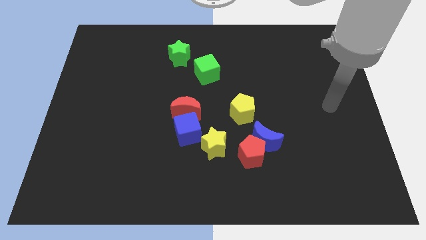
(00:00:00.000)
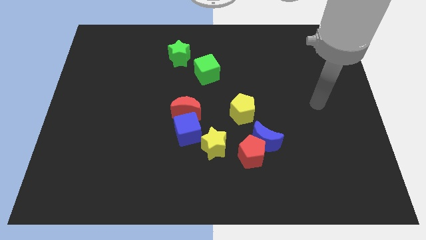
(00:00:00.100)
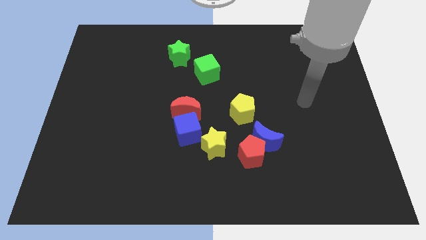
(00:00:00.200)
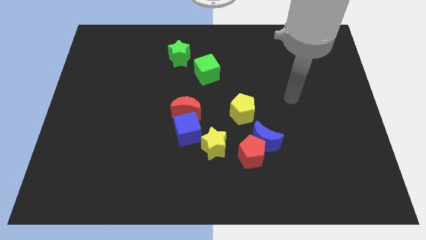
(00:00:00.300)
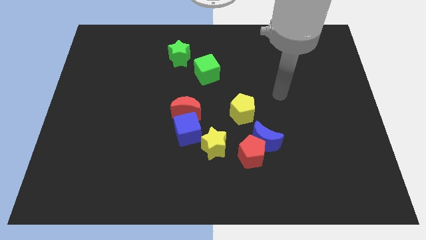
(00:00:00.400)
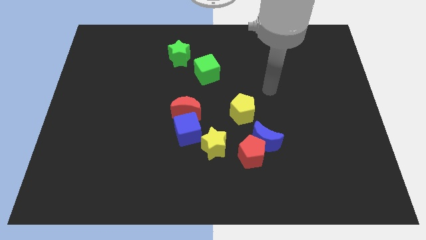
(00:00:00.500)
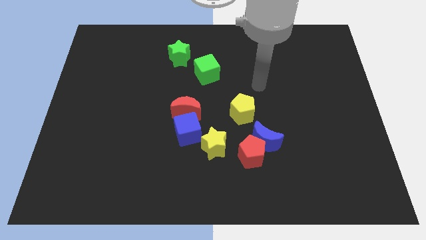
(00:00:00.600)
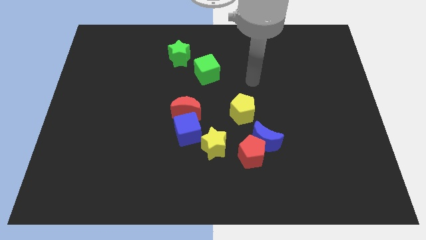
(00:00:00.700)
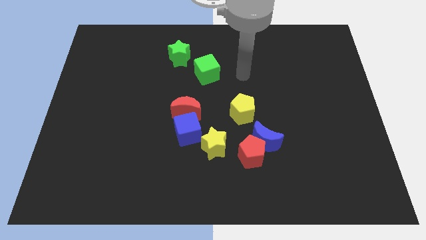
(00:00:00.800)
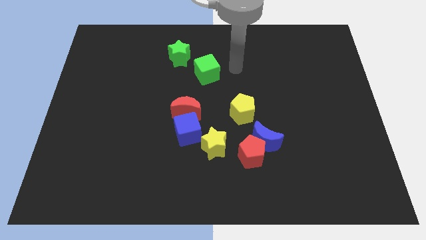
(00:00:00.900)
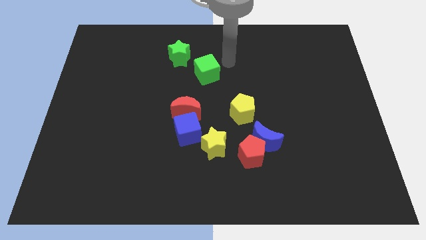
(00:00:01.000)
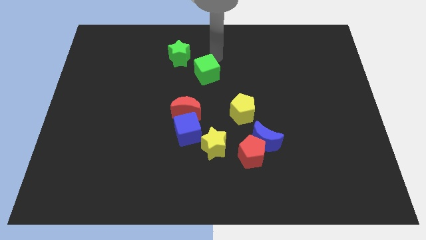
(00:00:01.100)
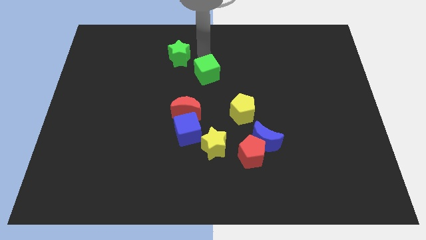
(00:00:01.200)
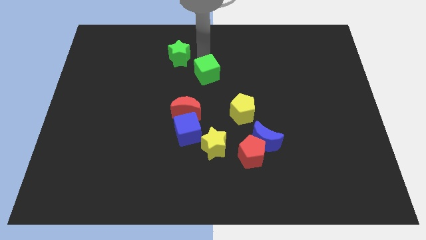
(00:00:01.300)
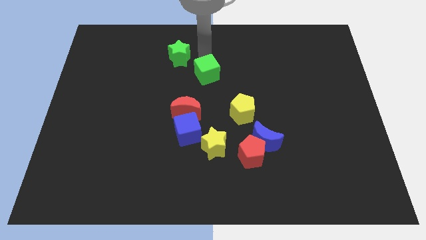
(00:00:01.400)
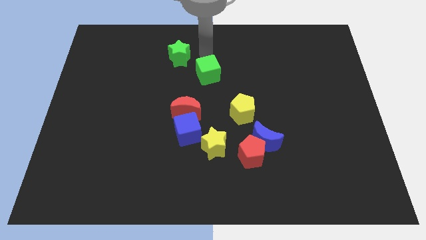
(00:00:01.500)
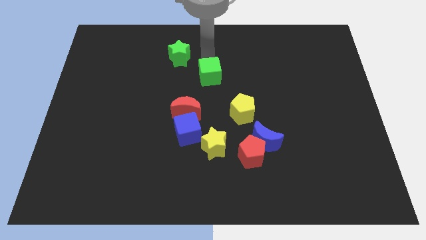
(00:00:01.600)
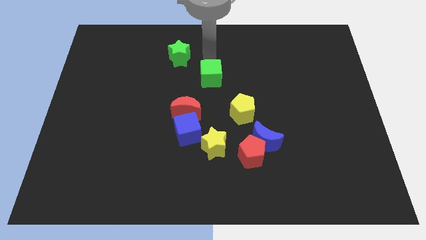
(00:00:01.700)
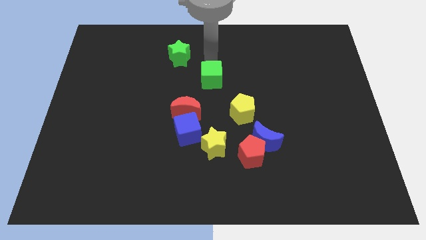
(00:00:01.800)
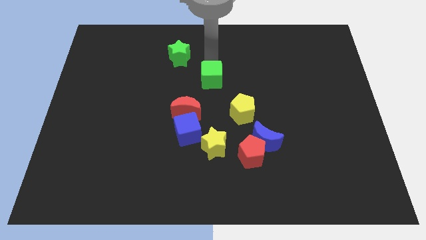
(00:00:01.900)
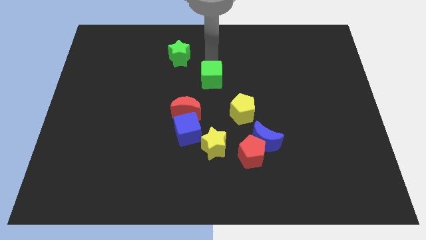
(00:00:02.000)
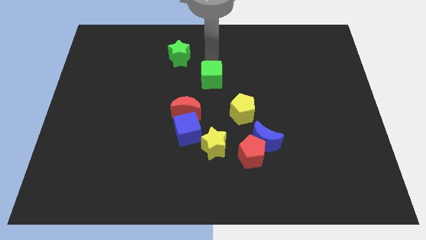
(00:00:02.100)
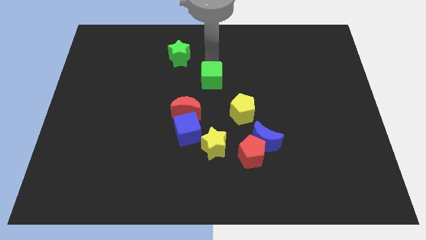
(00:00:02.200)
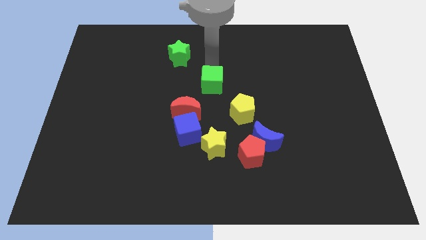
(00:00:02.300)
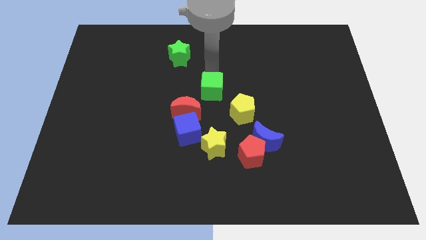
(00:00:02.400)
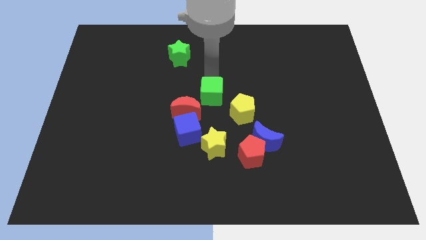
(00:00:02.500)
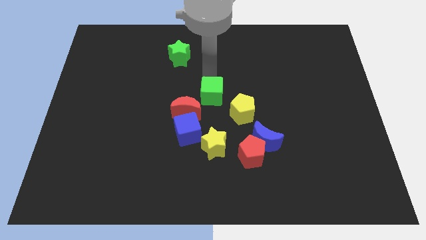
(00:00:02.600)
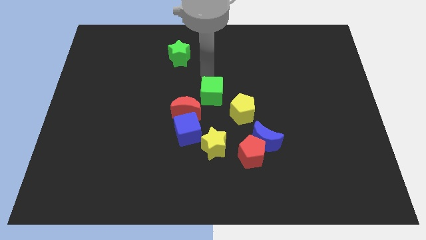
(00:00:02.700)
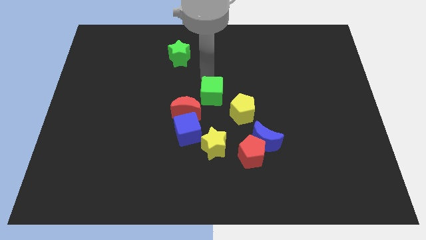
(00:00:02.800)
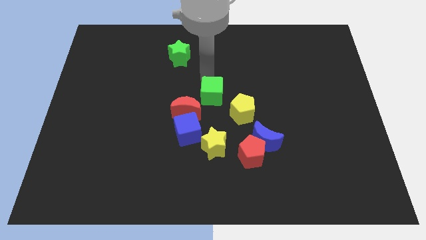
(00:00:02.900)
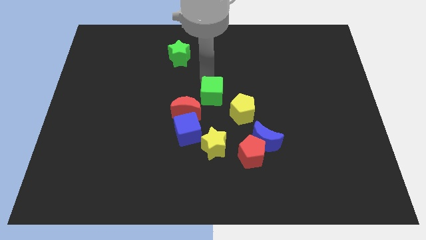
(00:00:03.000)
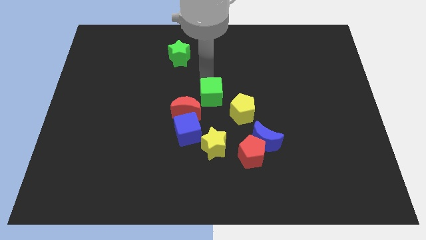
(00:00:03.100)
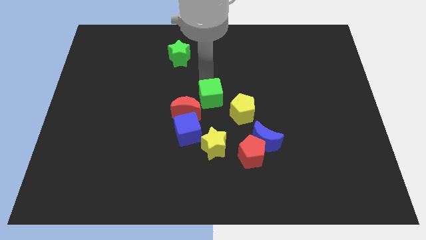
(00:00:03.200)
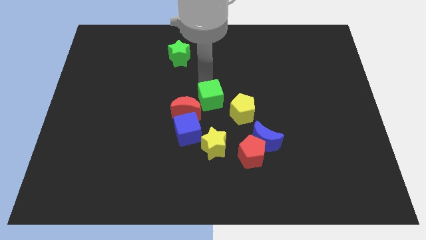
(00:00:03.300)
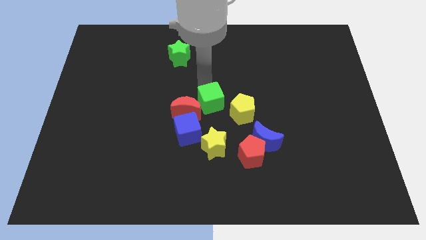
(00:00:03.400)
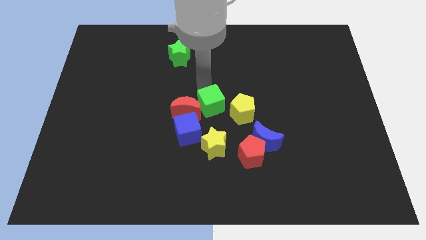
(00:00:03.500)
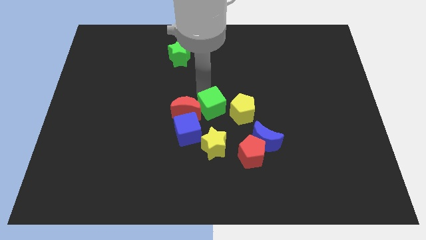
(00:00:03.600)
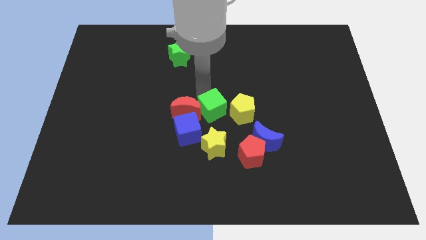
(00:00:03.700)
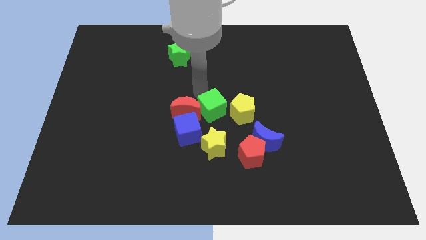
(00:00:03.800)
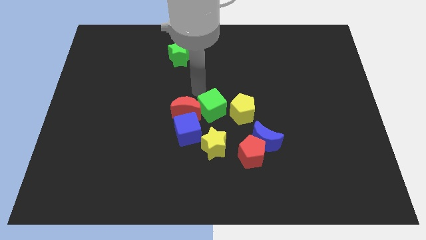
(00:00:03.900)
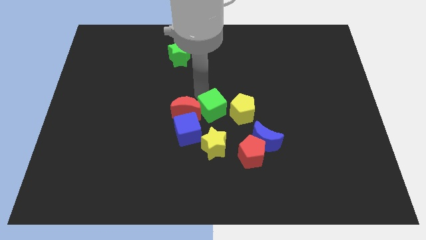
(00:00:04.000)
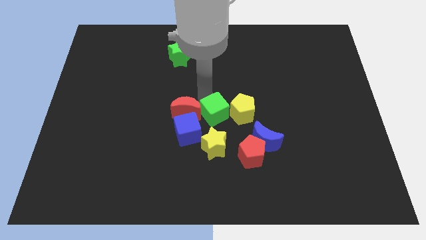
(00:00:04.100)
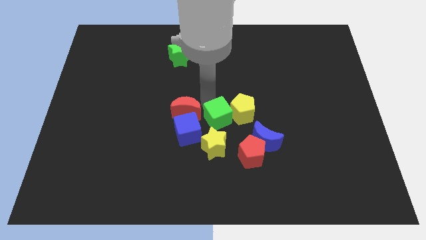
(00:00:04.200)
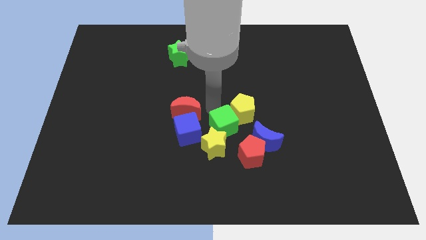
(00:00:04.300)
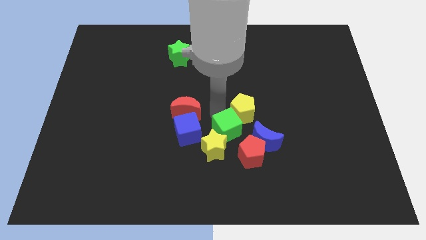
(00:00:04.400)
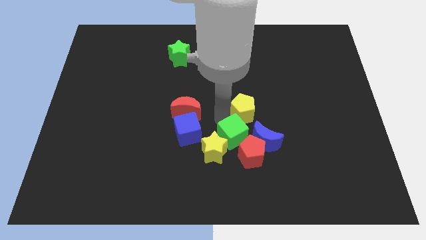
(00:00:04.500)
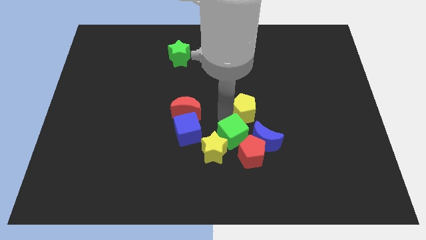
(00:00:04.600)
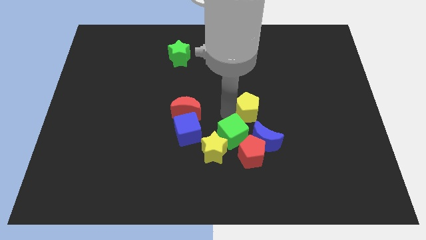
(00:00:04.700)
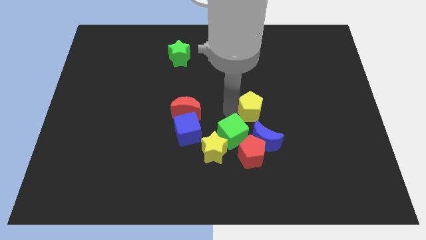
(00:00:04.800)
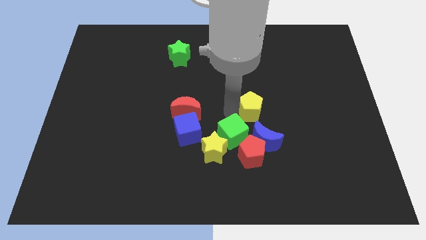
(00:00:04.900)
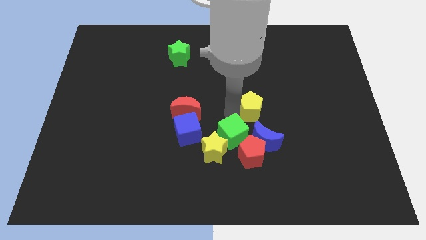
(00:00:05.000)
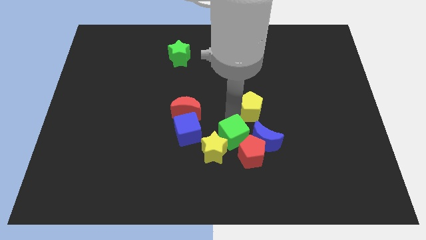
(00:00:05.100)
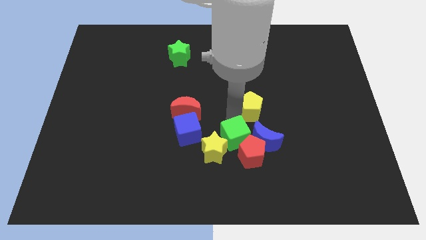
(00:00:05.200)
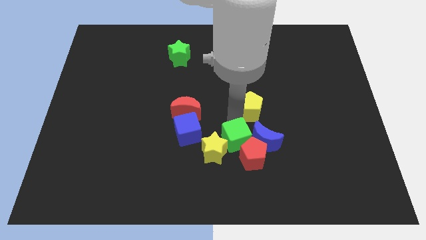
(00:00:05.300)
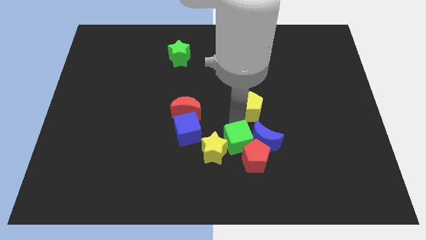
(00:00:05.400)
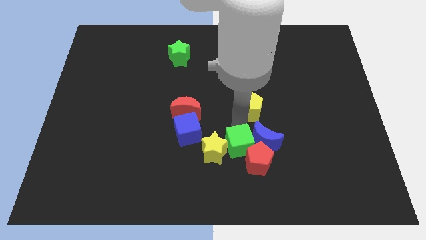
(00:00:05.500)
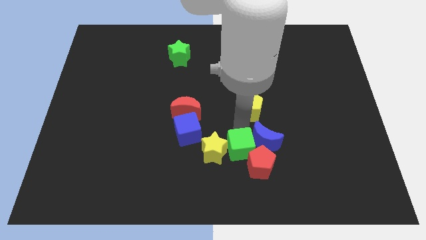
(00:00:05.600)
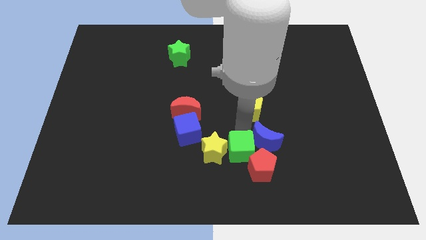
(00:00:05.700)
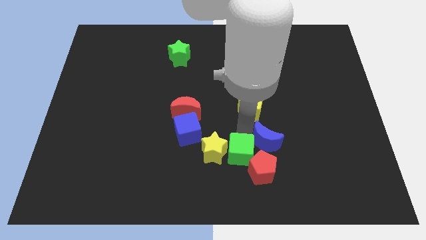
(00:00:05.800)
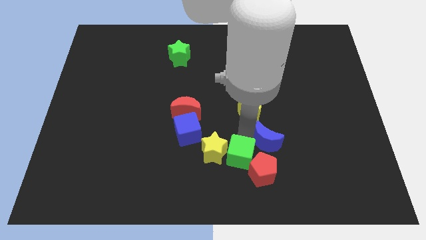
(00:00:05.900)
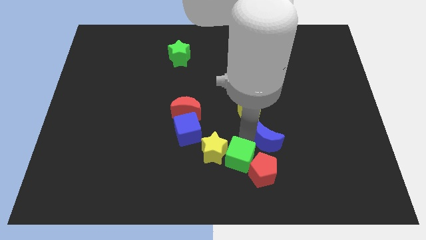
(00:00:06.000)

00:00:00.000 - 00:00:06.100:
push the green cube to the bottom

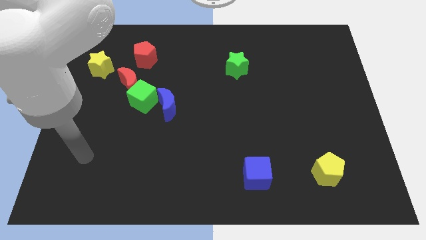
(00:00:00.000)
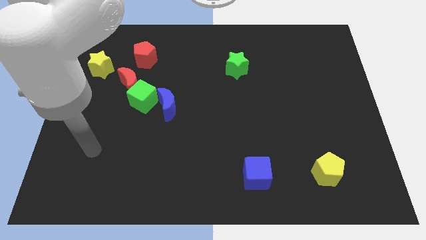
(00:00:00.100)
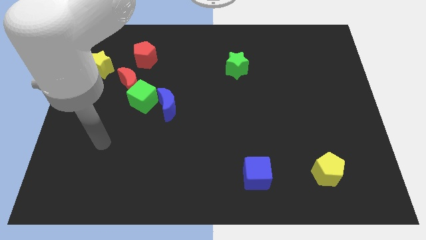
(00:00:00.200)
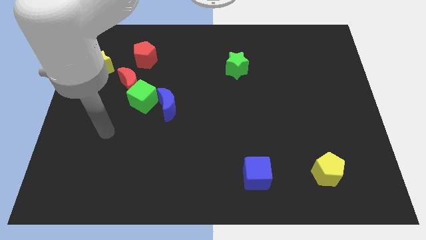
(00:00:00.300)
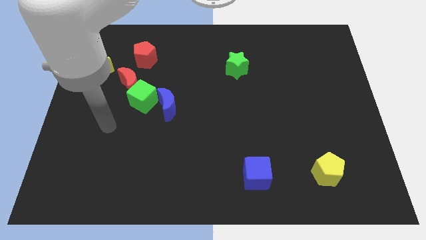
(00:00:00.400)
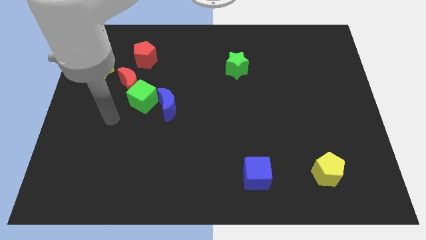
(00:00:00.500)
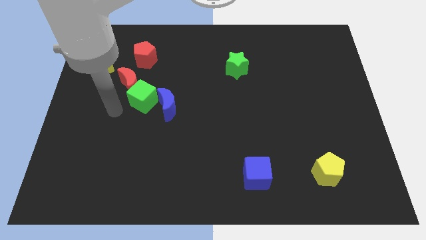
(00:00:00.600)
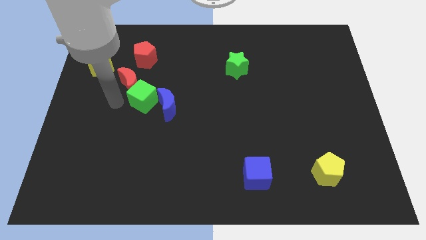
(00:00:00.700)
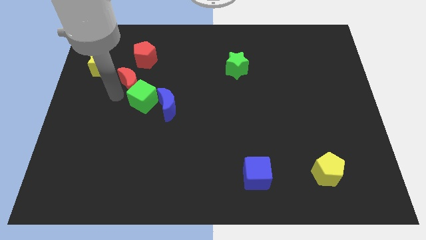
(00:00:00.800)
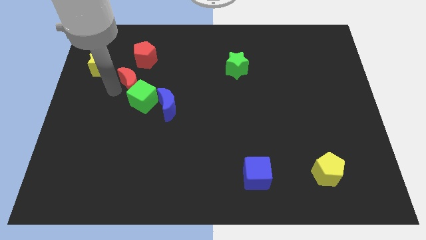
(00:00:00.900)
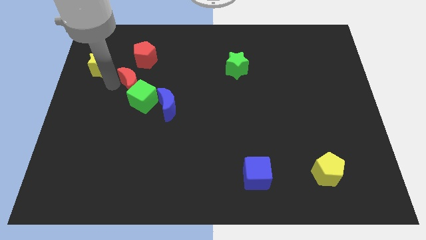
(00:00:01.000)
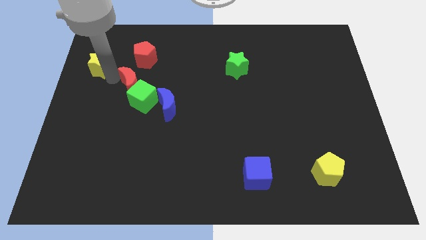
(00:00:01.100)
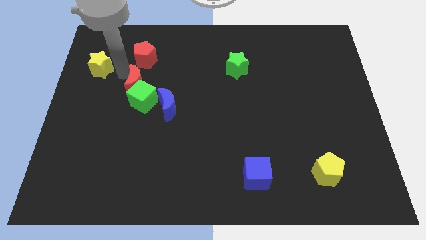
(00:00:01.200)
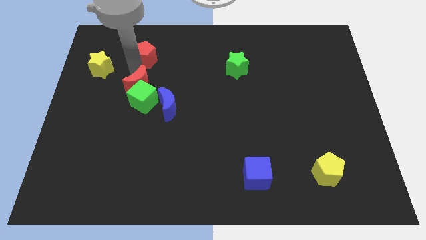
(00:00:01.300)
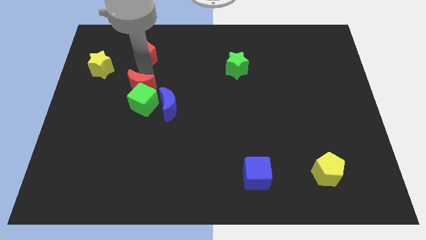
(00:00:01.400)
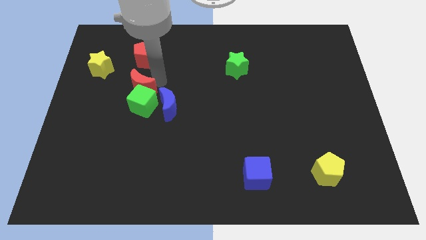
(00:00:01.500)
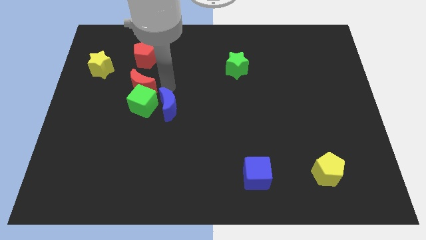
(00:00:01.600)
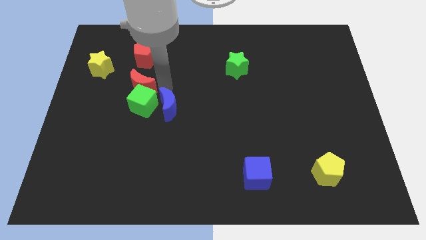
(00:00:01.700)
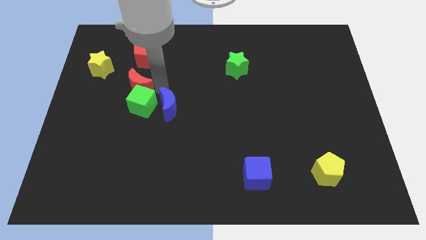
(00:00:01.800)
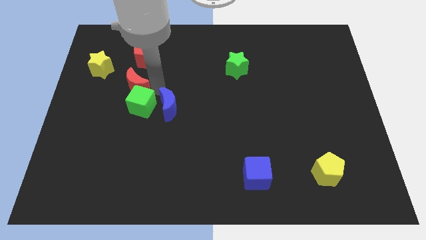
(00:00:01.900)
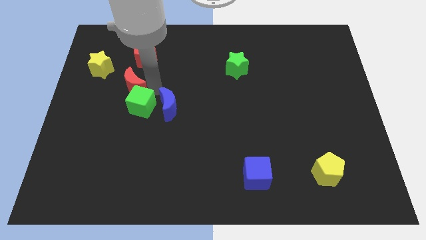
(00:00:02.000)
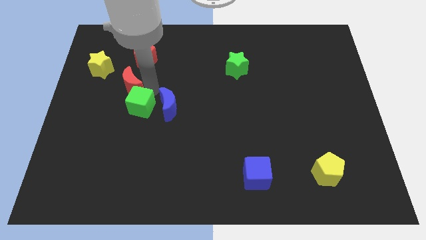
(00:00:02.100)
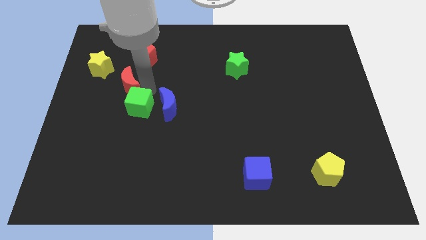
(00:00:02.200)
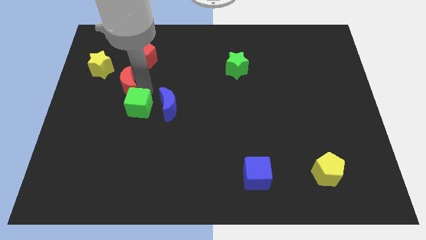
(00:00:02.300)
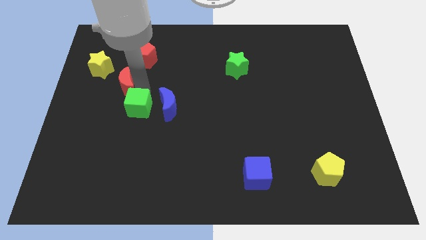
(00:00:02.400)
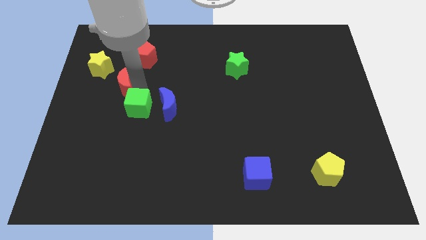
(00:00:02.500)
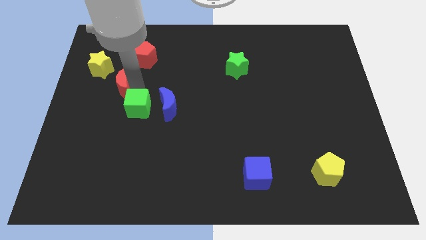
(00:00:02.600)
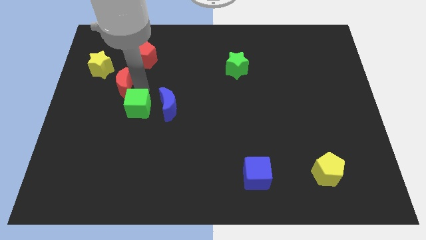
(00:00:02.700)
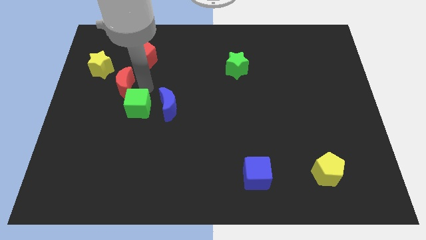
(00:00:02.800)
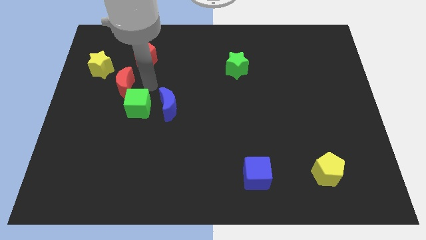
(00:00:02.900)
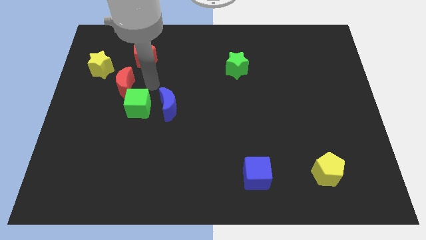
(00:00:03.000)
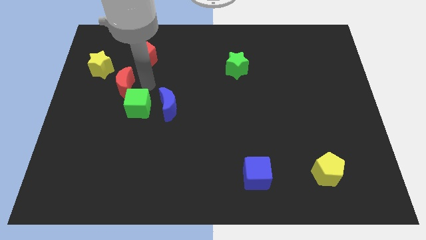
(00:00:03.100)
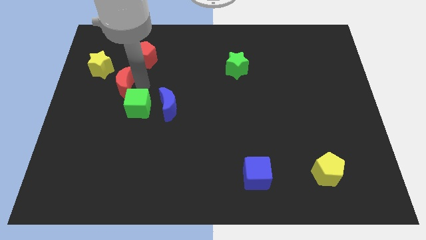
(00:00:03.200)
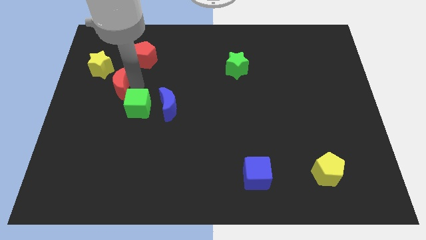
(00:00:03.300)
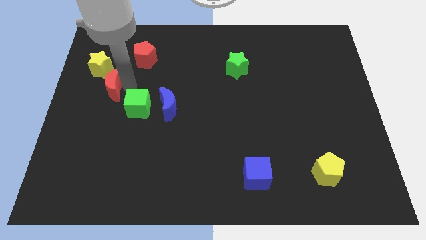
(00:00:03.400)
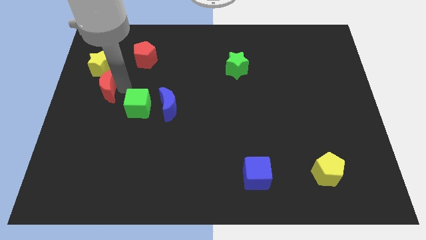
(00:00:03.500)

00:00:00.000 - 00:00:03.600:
move the red moon to the center left
